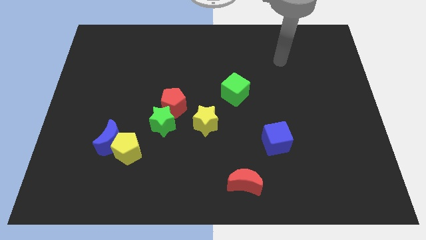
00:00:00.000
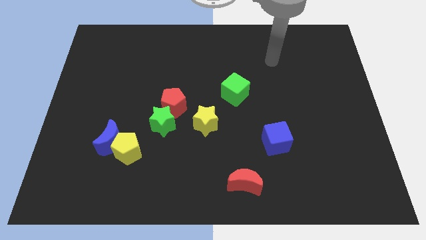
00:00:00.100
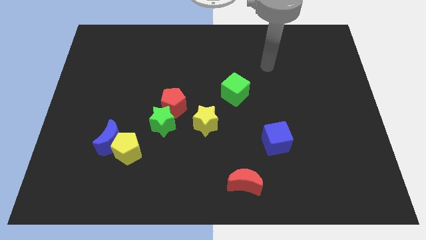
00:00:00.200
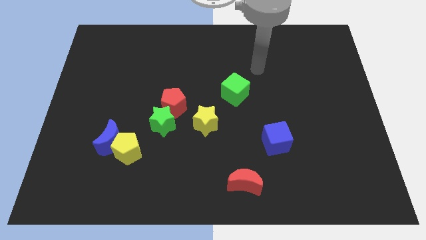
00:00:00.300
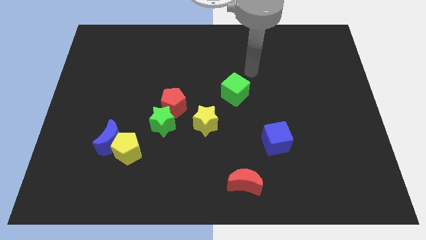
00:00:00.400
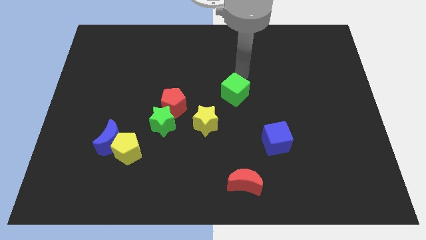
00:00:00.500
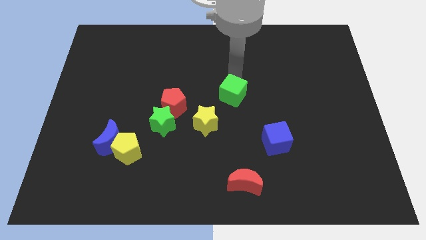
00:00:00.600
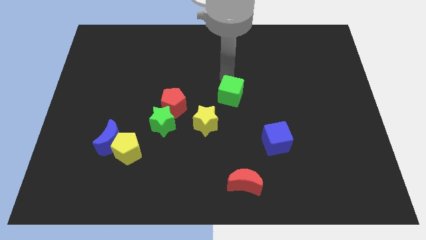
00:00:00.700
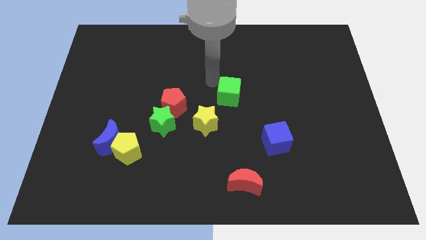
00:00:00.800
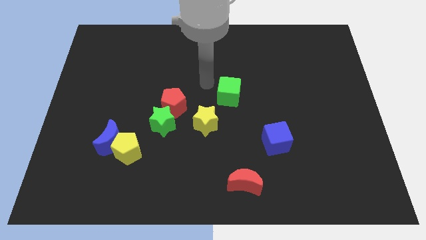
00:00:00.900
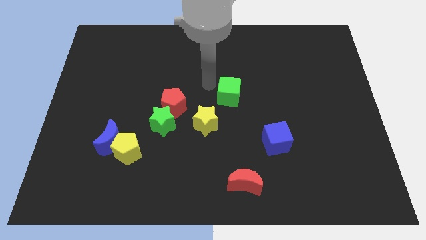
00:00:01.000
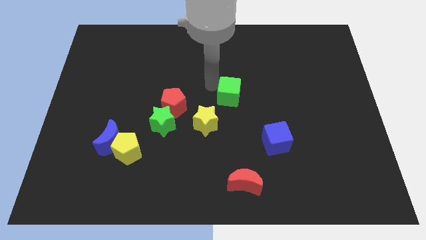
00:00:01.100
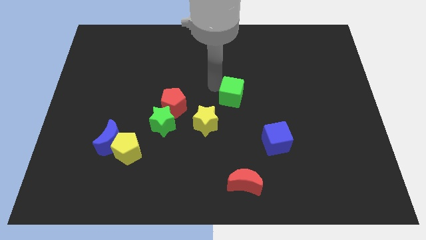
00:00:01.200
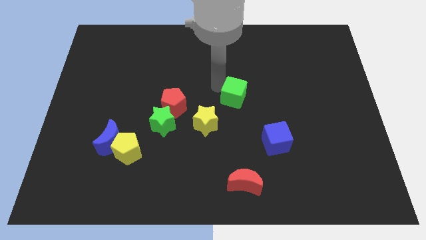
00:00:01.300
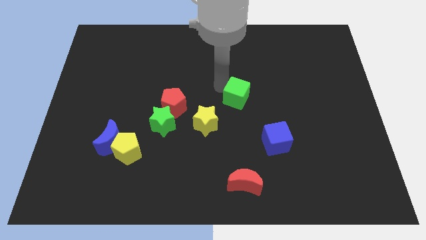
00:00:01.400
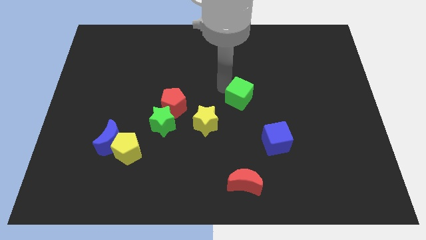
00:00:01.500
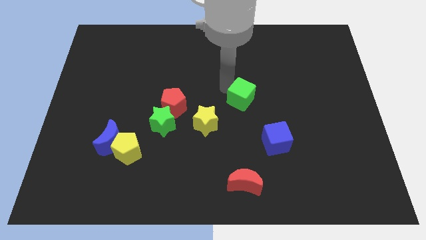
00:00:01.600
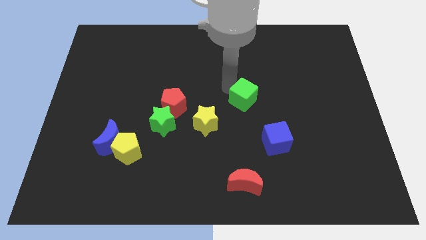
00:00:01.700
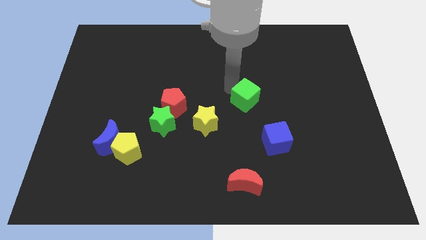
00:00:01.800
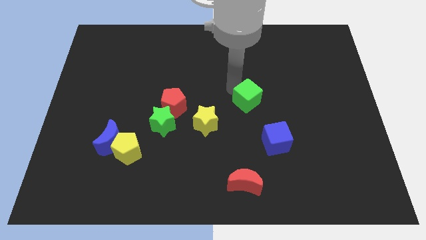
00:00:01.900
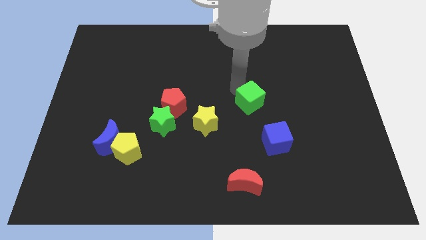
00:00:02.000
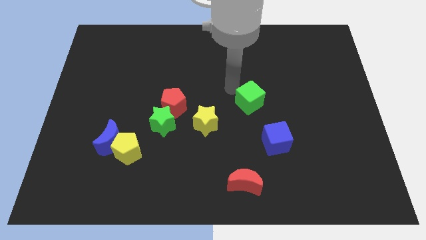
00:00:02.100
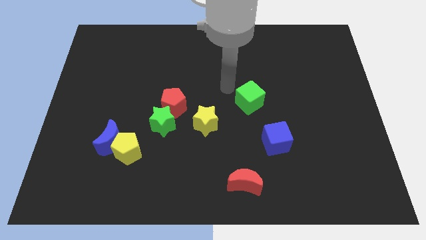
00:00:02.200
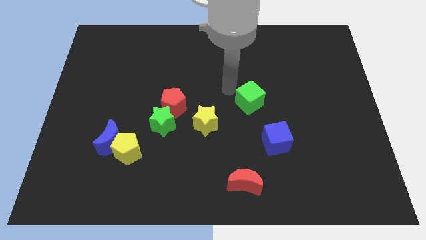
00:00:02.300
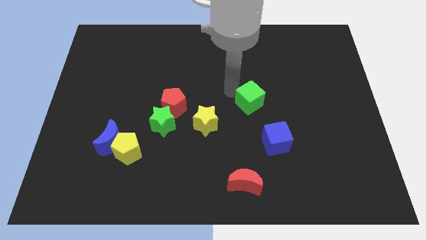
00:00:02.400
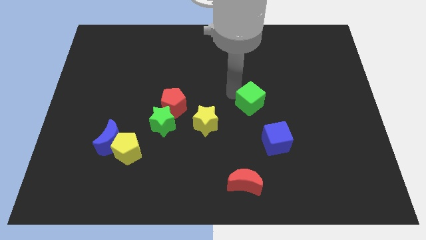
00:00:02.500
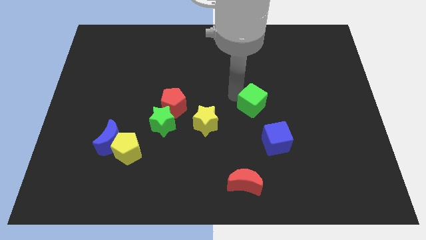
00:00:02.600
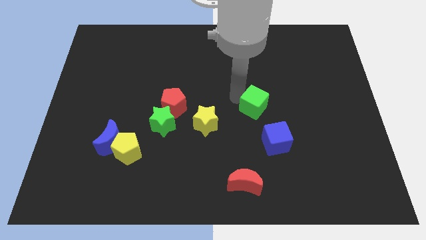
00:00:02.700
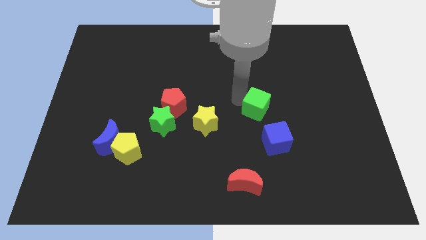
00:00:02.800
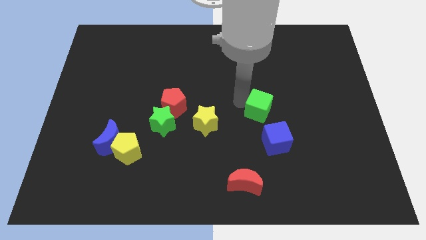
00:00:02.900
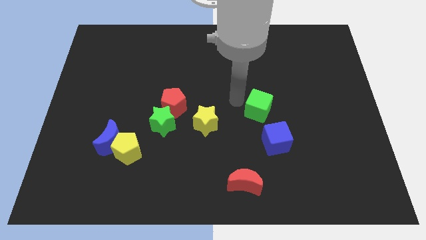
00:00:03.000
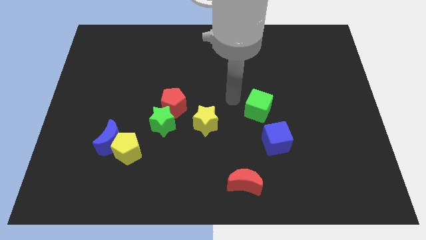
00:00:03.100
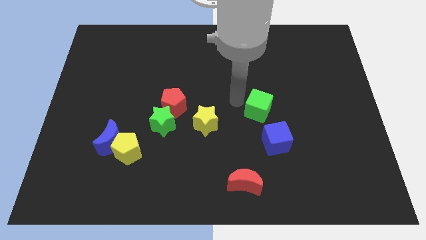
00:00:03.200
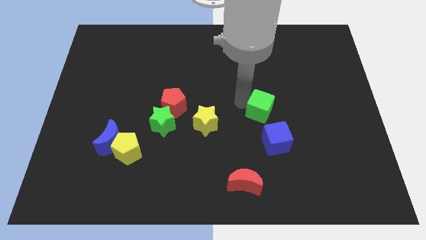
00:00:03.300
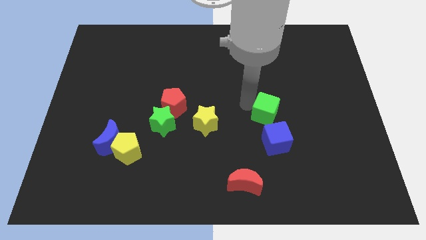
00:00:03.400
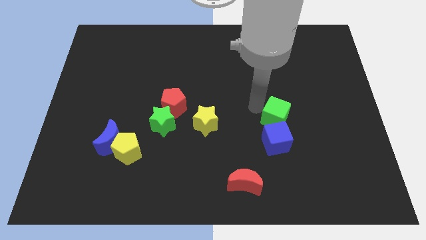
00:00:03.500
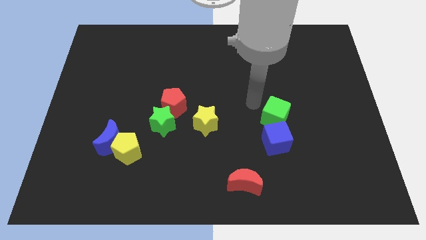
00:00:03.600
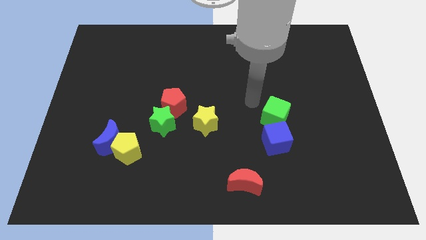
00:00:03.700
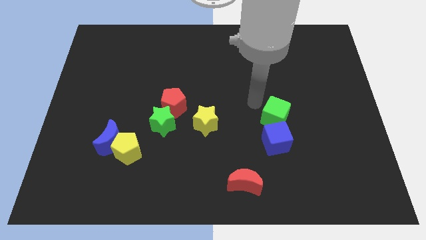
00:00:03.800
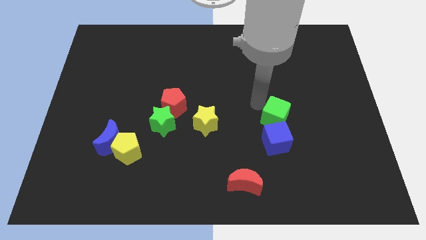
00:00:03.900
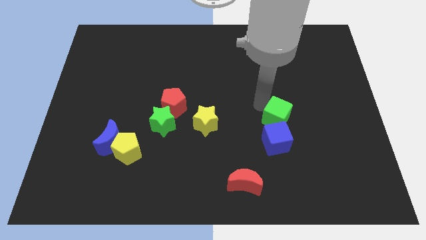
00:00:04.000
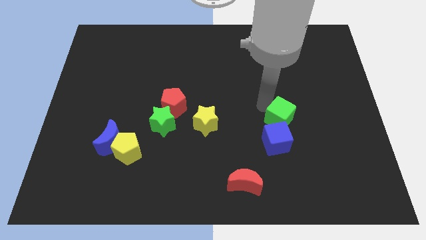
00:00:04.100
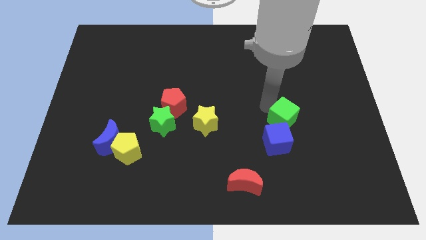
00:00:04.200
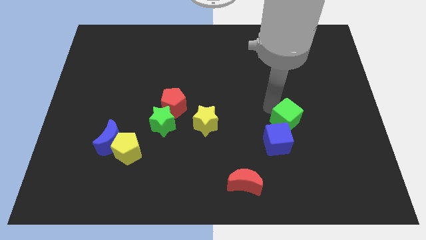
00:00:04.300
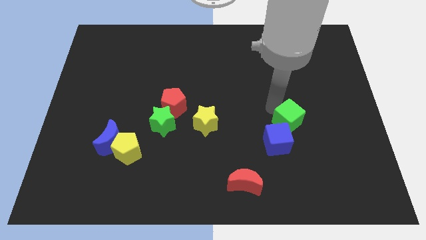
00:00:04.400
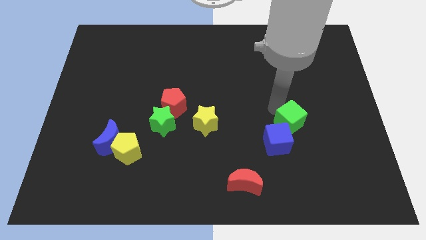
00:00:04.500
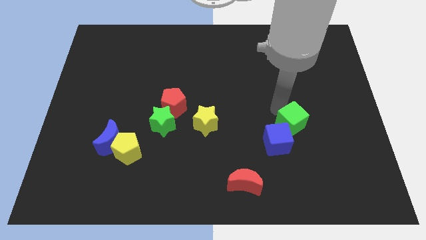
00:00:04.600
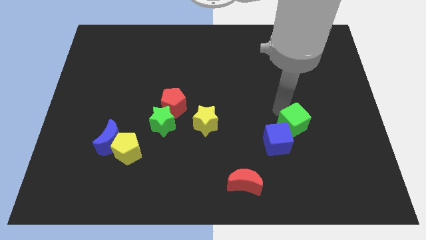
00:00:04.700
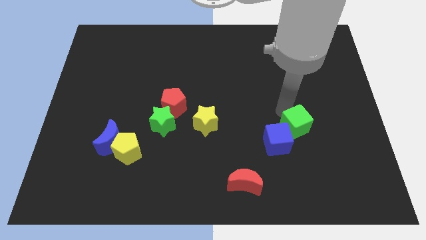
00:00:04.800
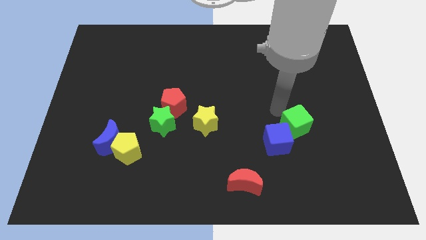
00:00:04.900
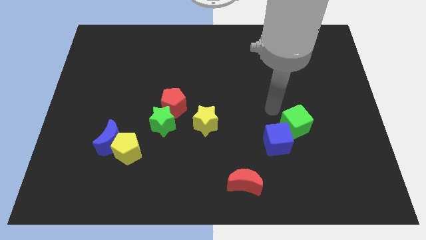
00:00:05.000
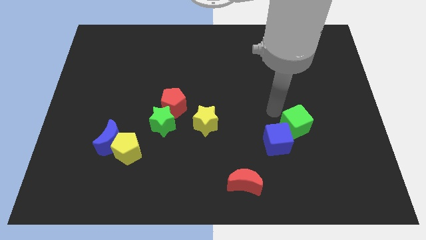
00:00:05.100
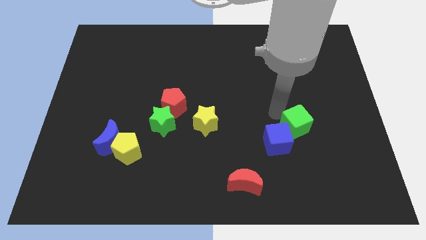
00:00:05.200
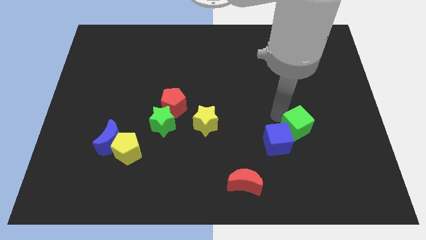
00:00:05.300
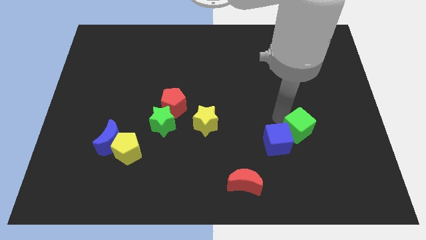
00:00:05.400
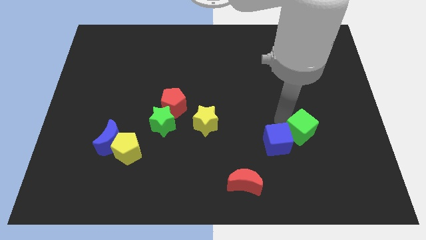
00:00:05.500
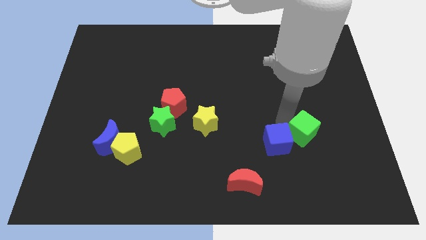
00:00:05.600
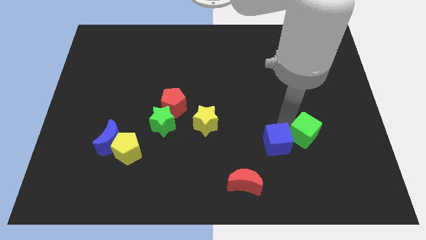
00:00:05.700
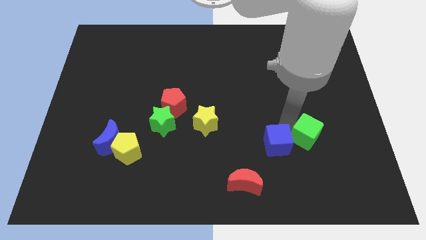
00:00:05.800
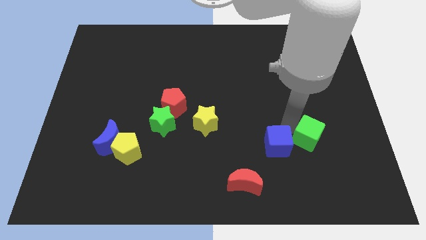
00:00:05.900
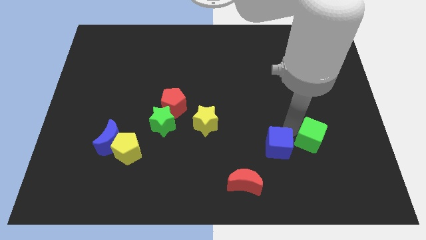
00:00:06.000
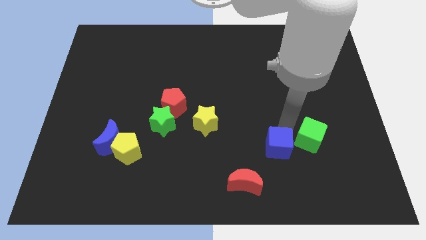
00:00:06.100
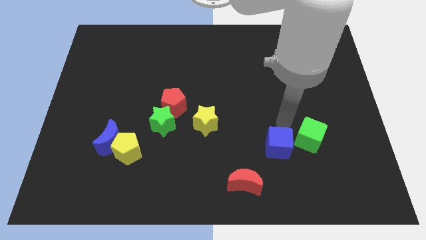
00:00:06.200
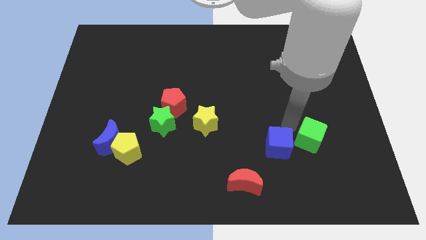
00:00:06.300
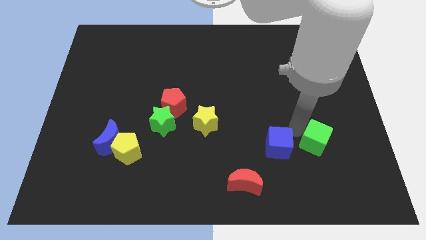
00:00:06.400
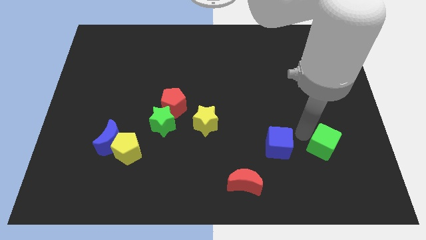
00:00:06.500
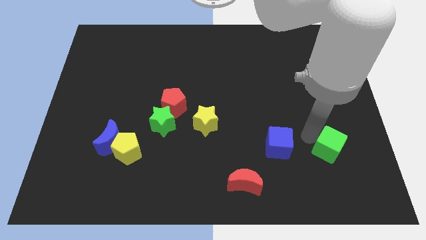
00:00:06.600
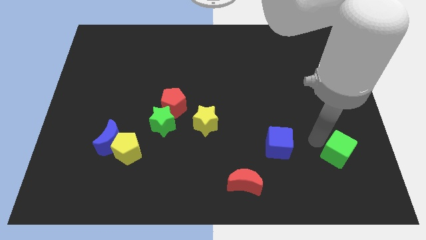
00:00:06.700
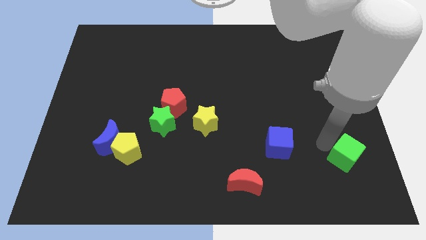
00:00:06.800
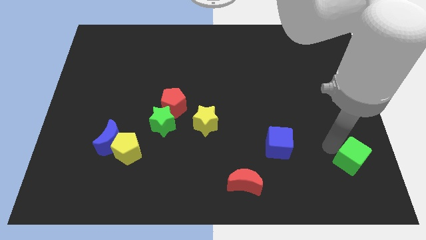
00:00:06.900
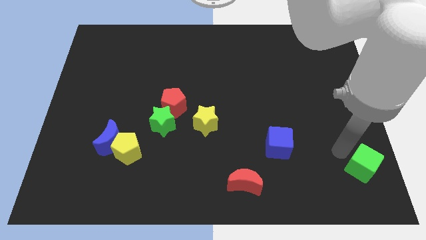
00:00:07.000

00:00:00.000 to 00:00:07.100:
put the green cube to the lower right corner
